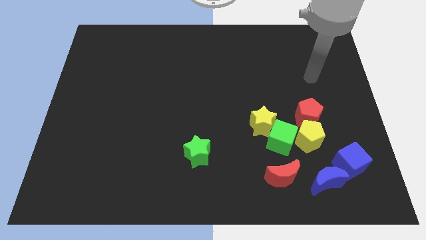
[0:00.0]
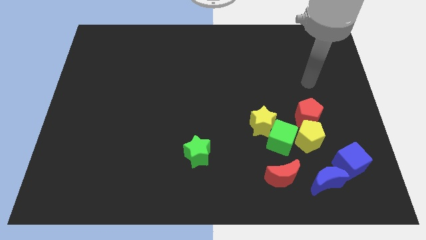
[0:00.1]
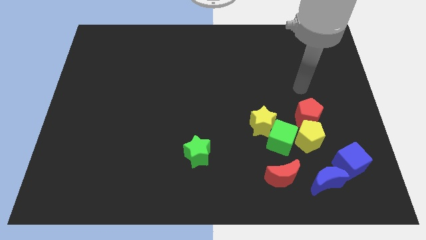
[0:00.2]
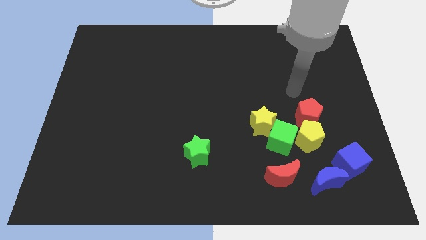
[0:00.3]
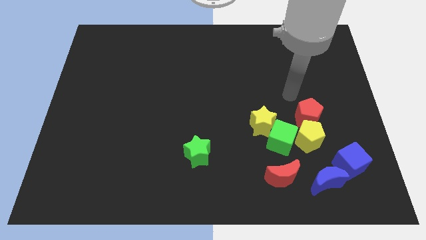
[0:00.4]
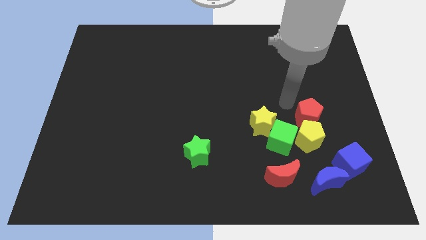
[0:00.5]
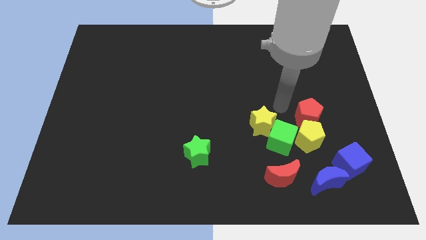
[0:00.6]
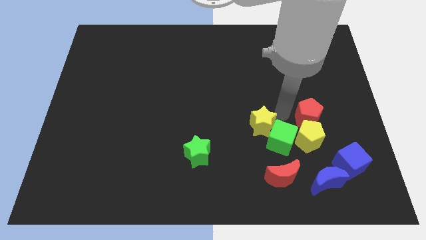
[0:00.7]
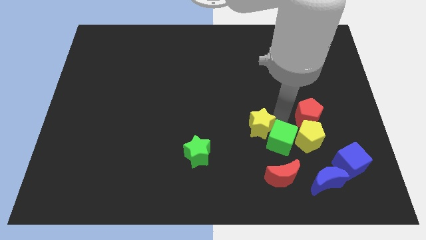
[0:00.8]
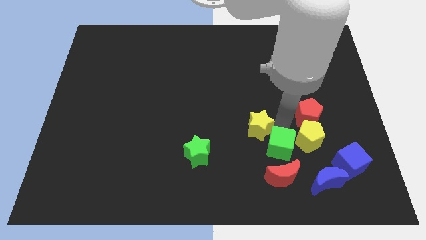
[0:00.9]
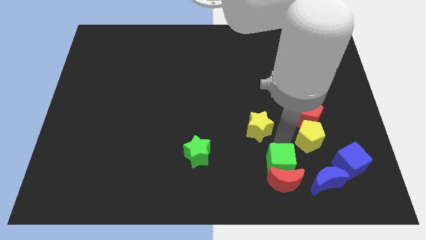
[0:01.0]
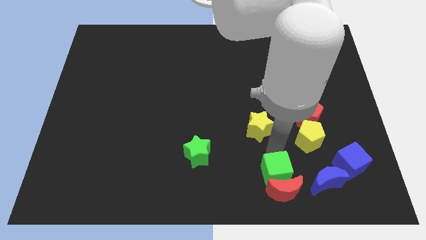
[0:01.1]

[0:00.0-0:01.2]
pull the yellow star apart from the green cube

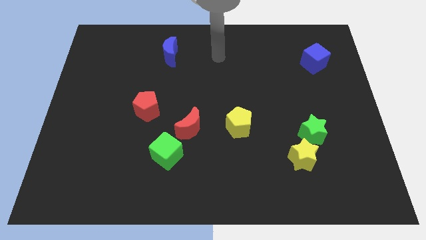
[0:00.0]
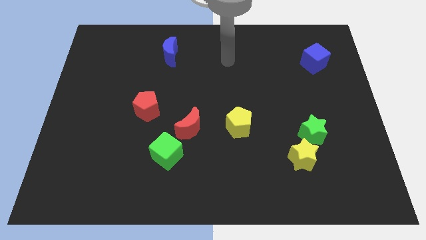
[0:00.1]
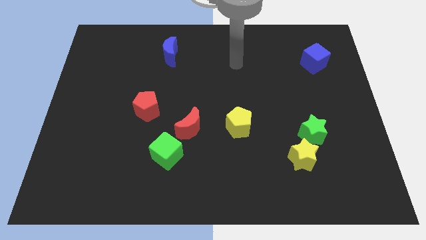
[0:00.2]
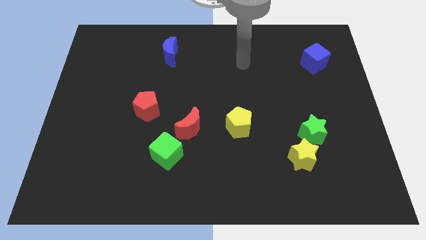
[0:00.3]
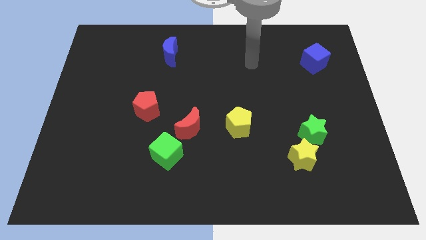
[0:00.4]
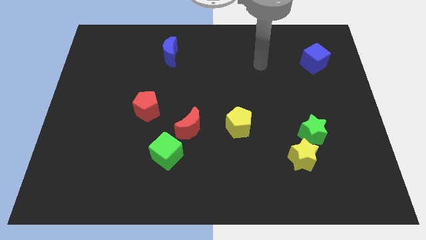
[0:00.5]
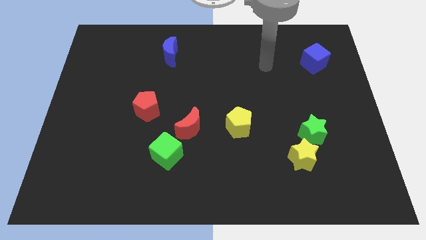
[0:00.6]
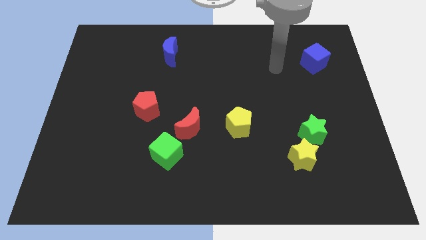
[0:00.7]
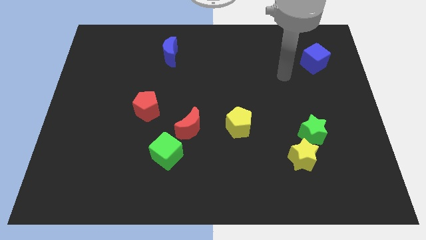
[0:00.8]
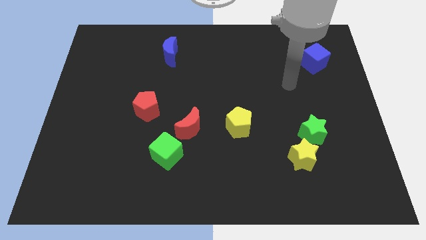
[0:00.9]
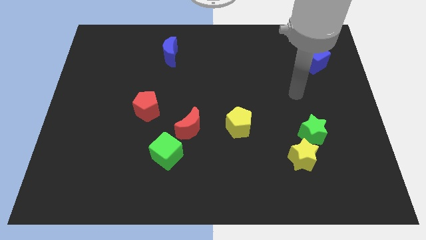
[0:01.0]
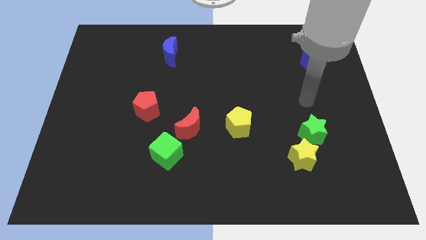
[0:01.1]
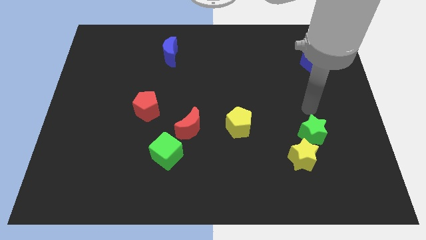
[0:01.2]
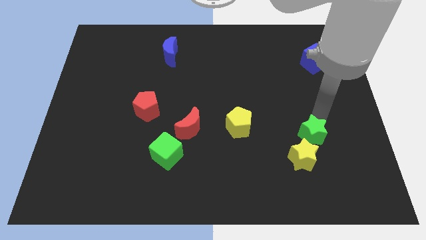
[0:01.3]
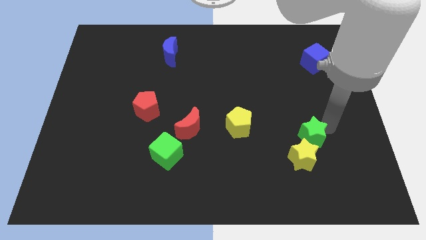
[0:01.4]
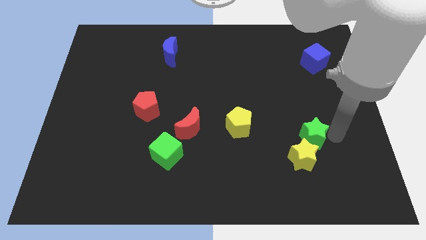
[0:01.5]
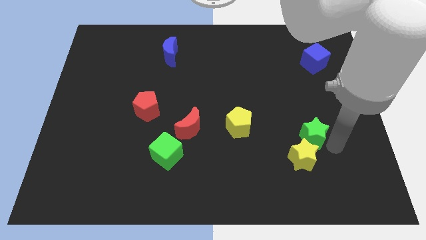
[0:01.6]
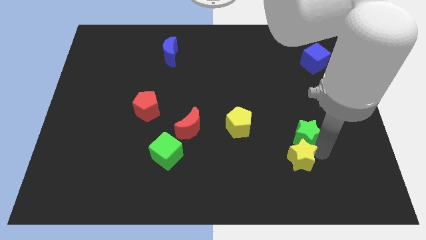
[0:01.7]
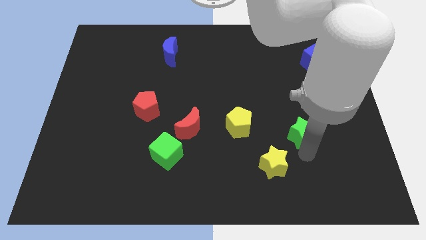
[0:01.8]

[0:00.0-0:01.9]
move the green star away from the yellow star

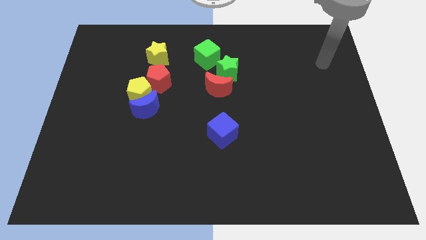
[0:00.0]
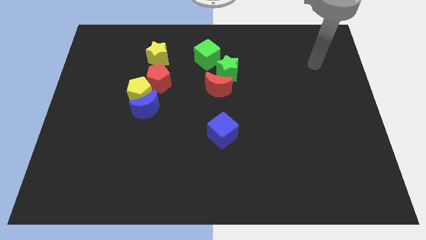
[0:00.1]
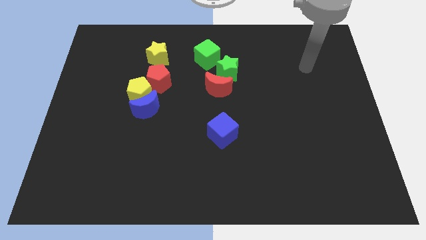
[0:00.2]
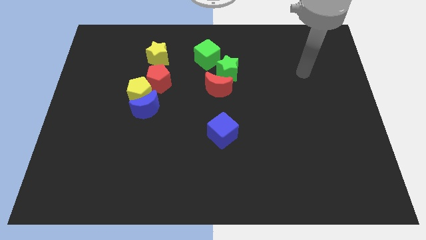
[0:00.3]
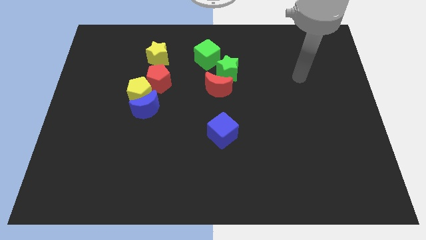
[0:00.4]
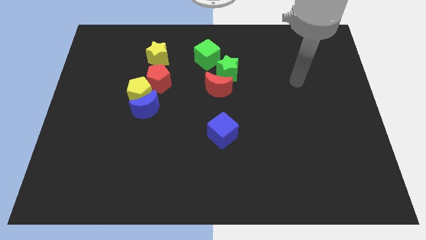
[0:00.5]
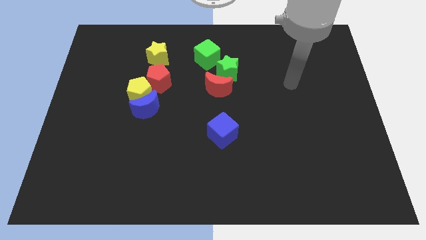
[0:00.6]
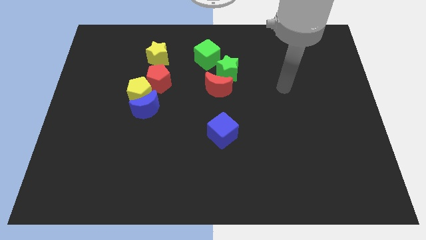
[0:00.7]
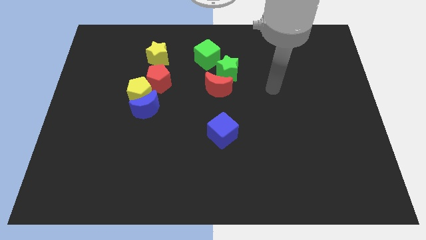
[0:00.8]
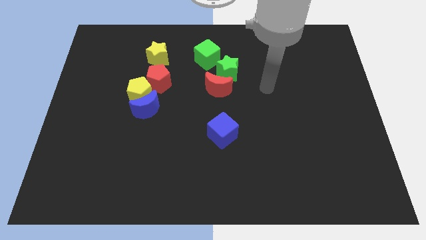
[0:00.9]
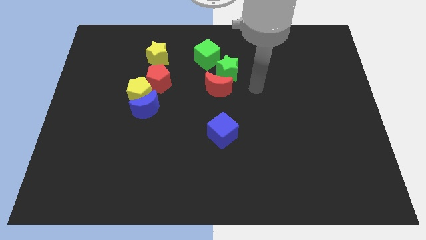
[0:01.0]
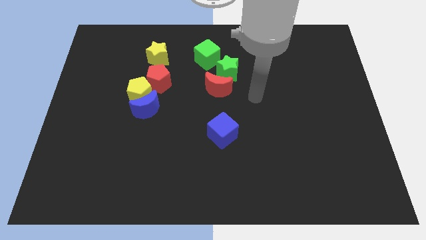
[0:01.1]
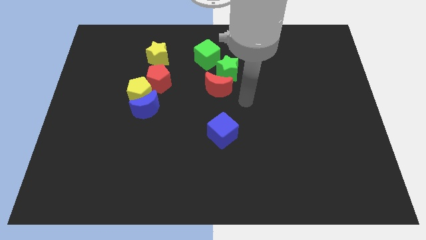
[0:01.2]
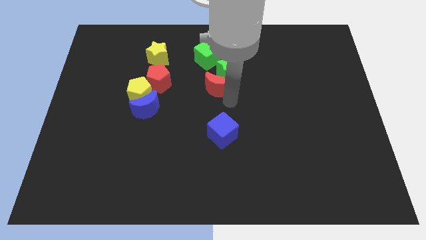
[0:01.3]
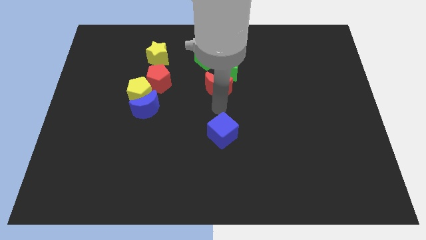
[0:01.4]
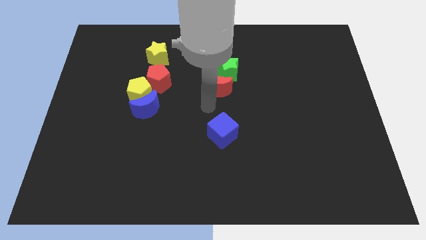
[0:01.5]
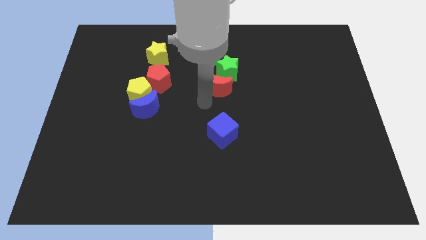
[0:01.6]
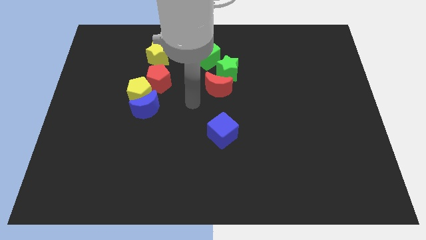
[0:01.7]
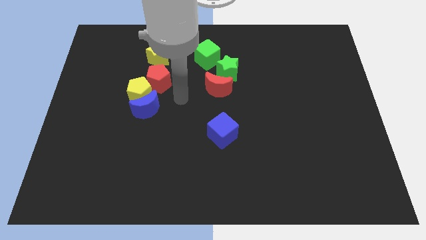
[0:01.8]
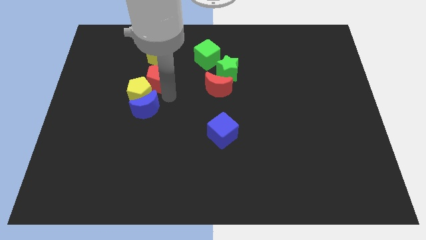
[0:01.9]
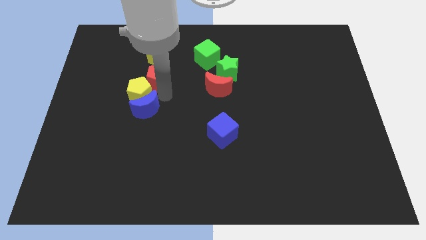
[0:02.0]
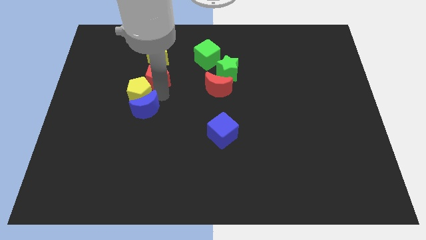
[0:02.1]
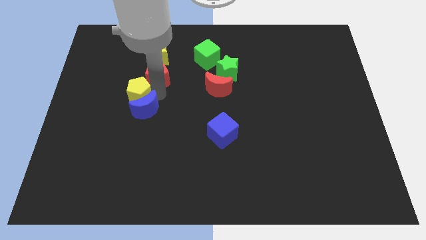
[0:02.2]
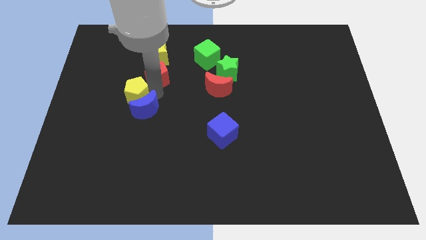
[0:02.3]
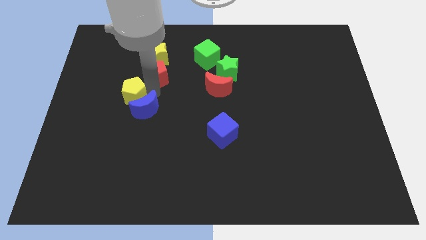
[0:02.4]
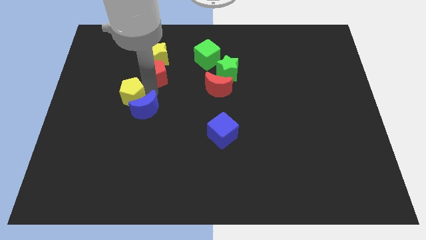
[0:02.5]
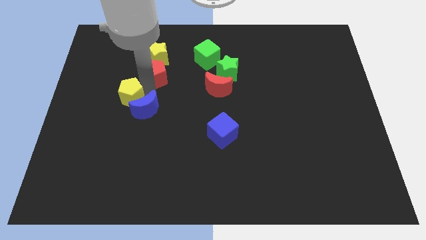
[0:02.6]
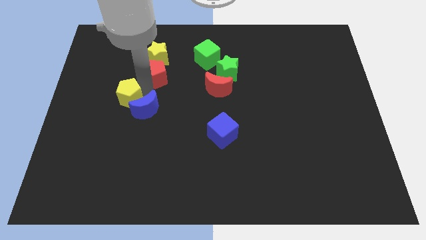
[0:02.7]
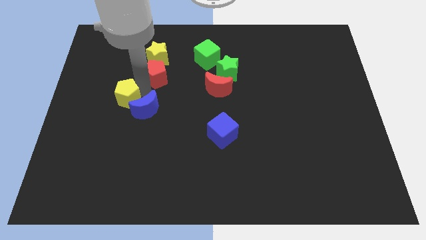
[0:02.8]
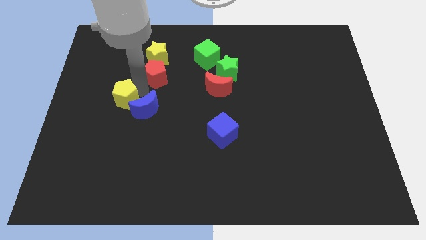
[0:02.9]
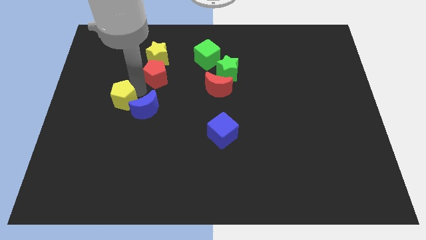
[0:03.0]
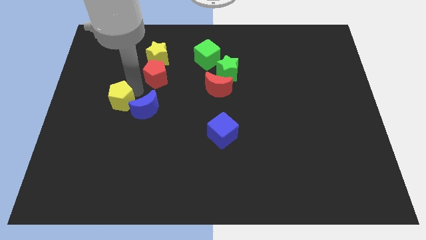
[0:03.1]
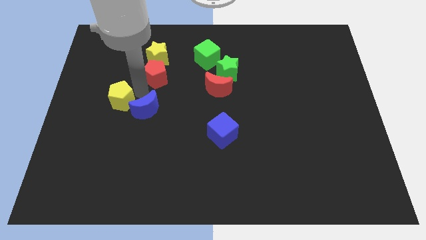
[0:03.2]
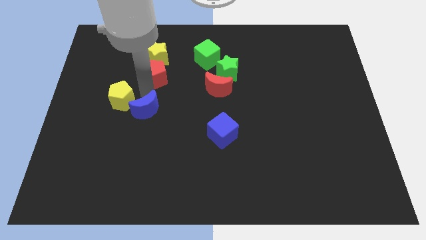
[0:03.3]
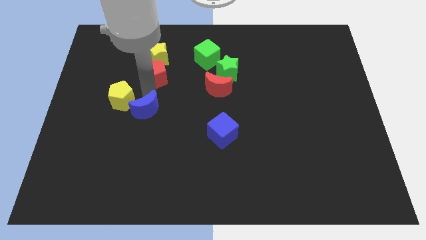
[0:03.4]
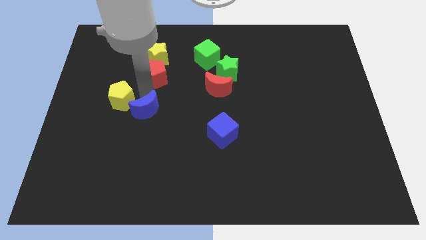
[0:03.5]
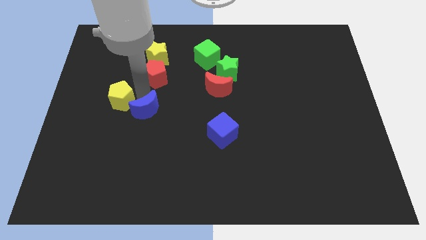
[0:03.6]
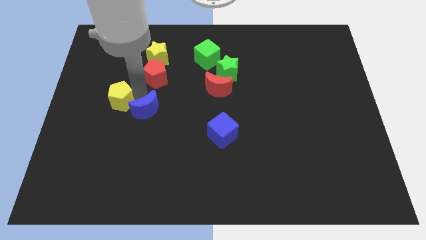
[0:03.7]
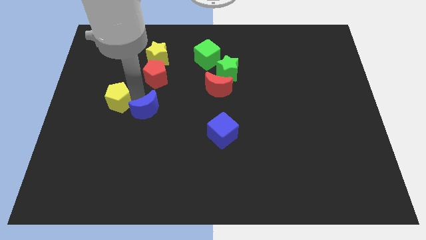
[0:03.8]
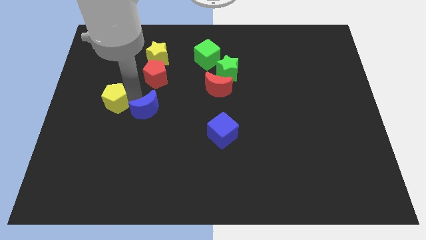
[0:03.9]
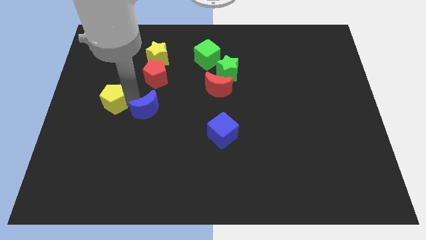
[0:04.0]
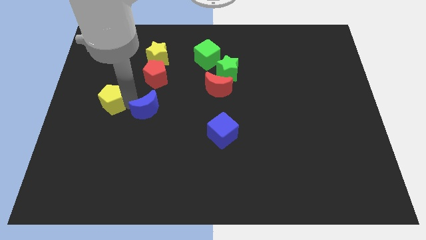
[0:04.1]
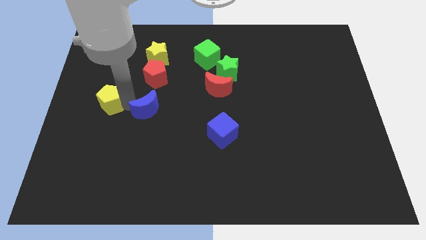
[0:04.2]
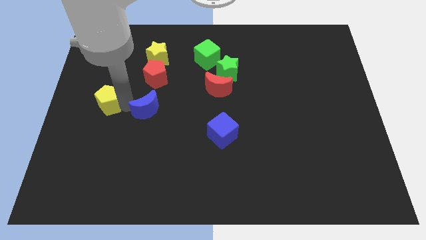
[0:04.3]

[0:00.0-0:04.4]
move the yellow pentagon away from the blue moon and red pentagon

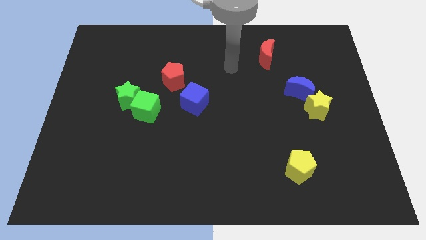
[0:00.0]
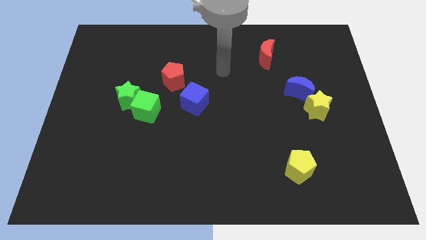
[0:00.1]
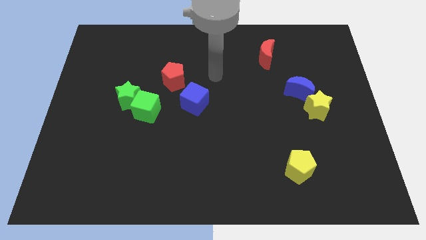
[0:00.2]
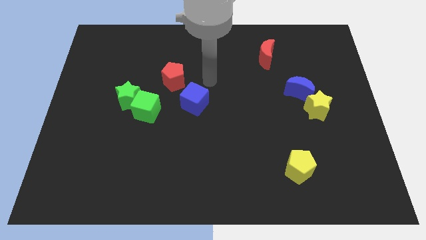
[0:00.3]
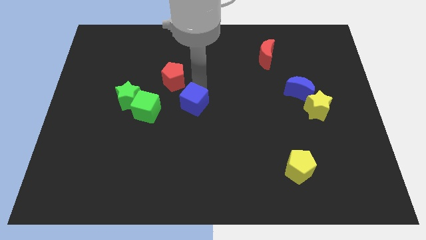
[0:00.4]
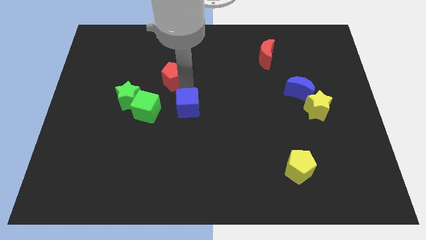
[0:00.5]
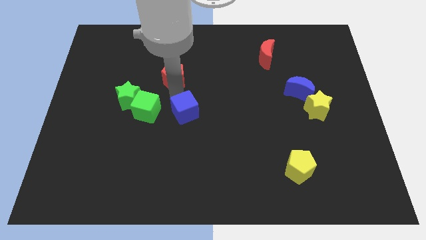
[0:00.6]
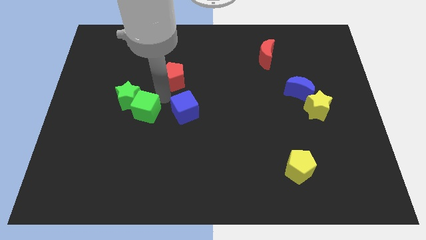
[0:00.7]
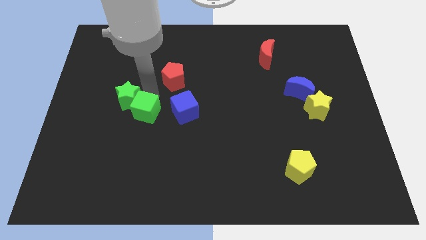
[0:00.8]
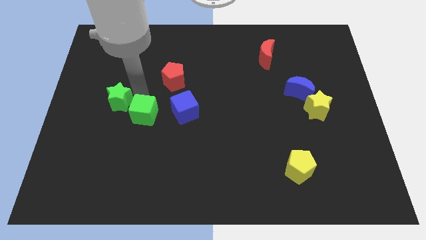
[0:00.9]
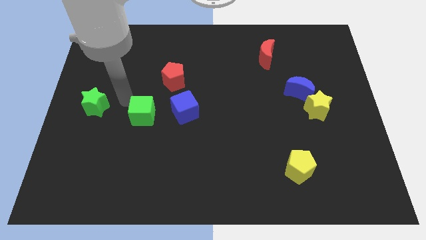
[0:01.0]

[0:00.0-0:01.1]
move the green cube away from the green star

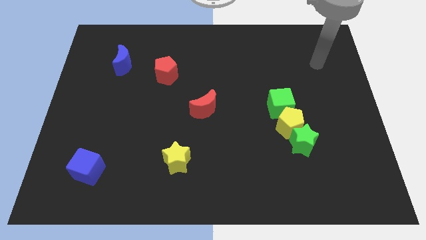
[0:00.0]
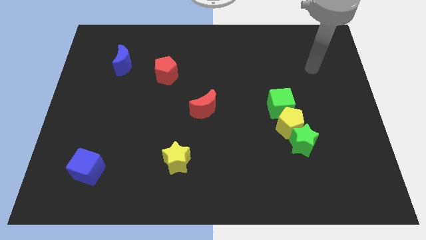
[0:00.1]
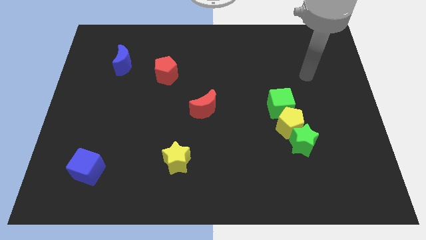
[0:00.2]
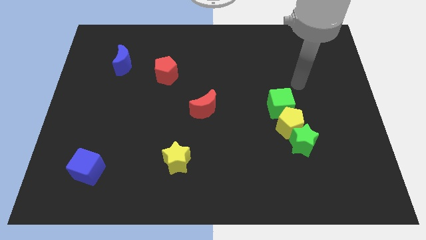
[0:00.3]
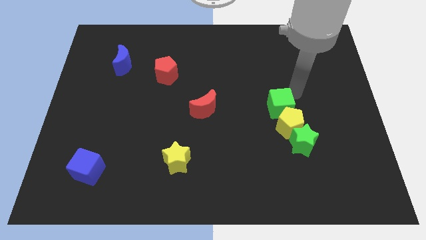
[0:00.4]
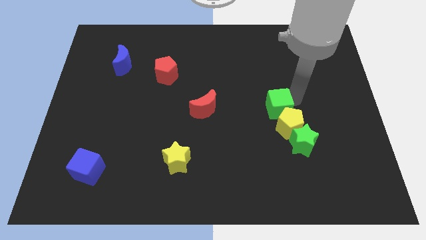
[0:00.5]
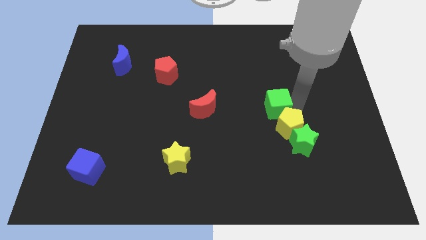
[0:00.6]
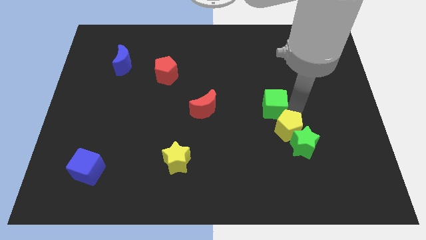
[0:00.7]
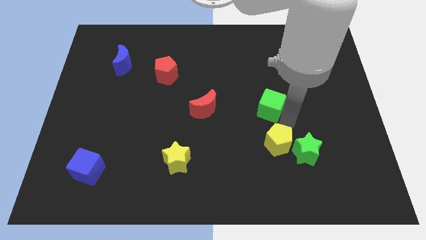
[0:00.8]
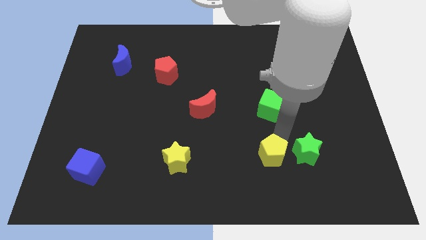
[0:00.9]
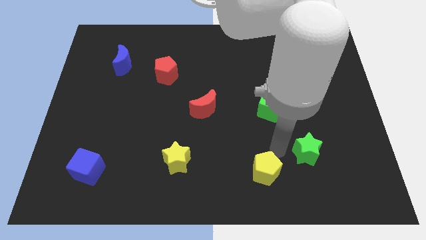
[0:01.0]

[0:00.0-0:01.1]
separate the green star from the yellow pentagon
